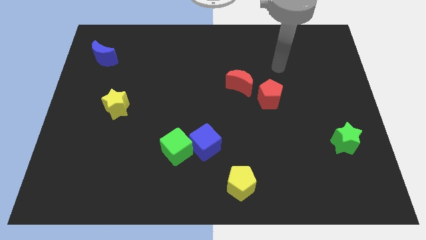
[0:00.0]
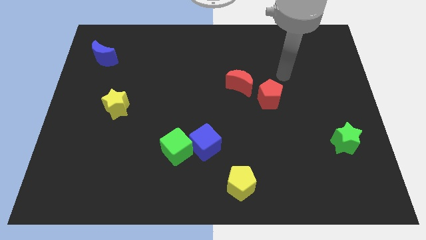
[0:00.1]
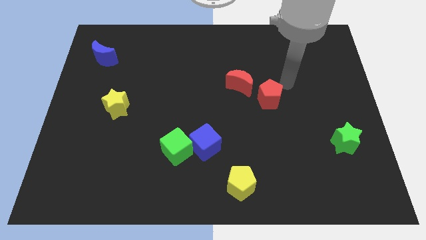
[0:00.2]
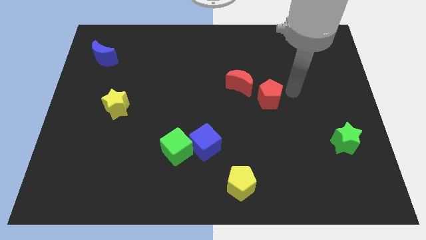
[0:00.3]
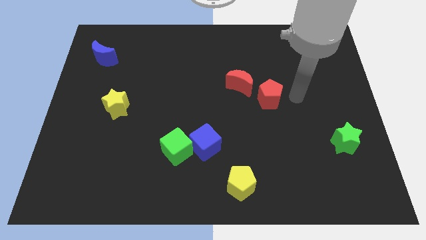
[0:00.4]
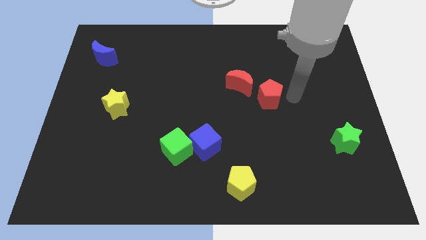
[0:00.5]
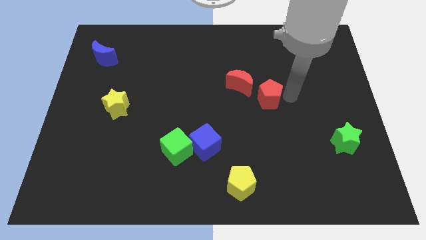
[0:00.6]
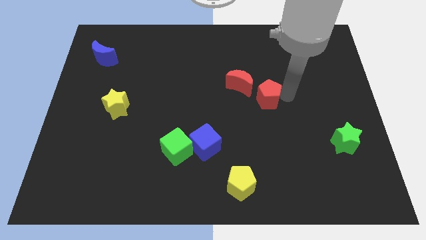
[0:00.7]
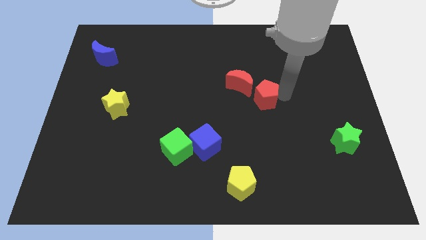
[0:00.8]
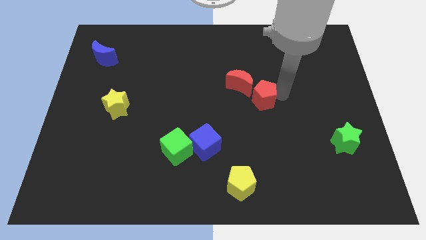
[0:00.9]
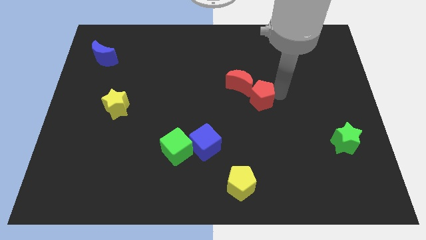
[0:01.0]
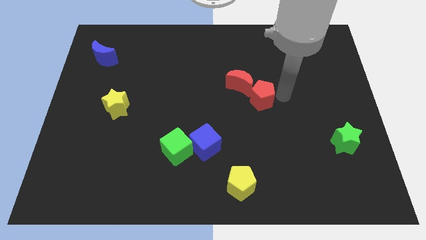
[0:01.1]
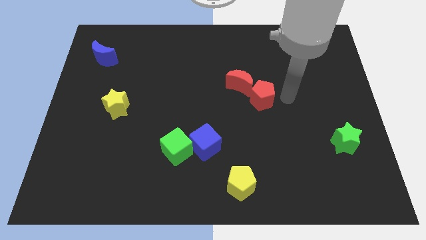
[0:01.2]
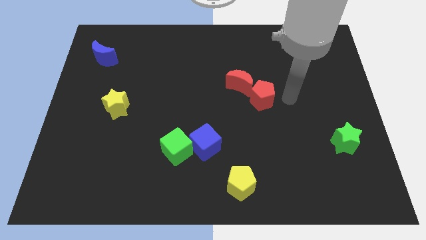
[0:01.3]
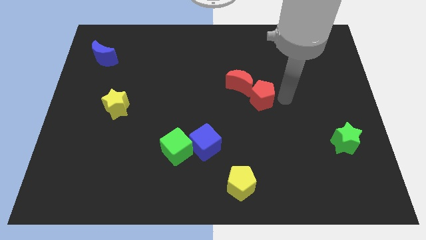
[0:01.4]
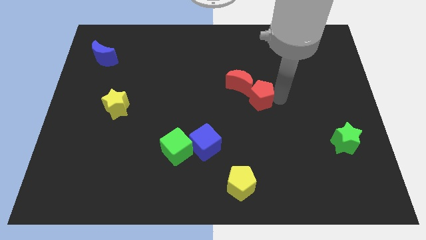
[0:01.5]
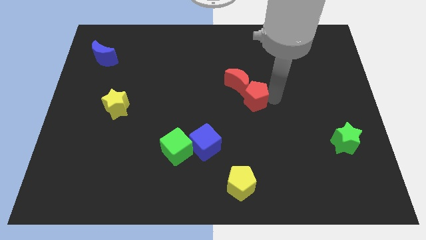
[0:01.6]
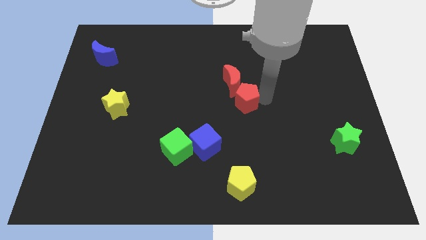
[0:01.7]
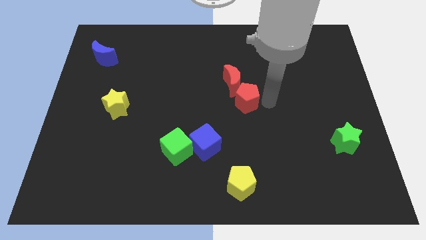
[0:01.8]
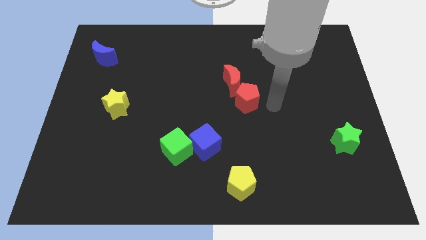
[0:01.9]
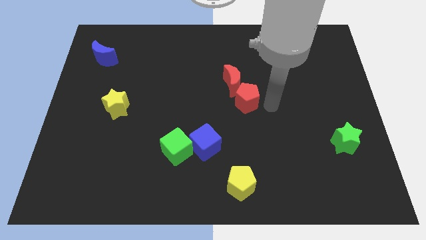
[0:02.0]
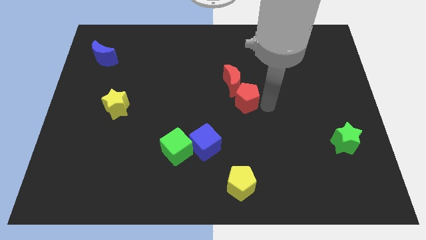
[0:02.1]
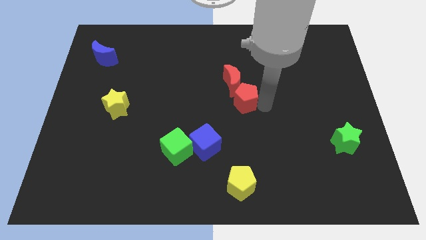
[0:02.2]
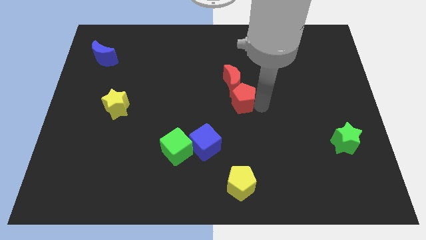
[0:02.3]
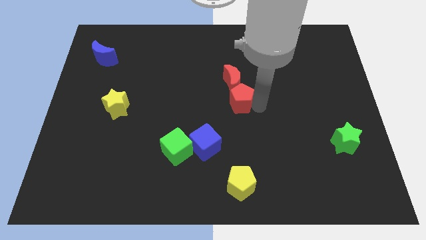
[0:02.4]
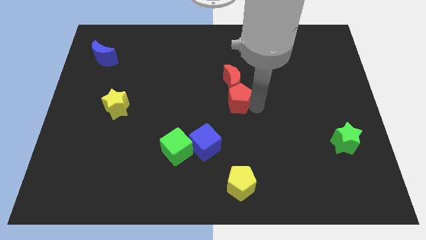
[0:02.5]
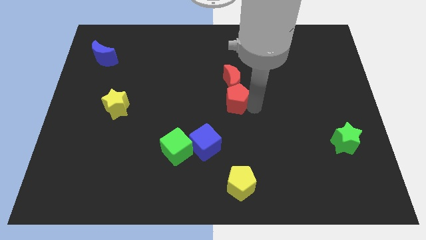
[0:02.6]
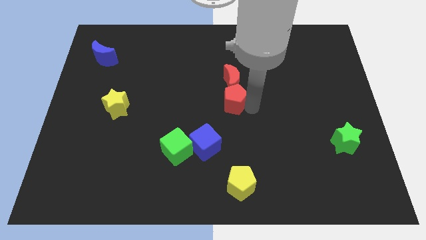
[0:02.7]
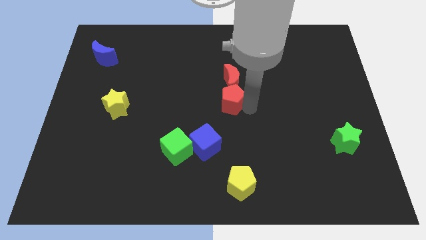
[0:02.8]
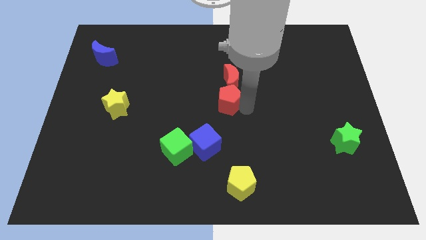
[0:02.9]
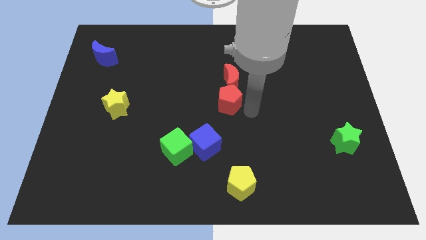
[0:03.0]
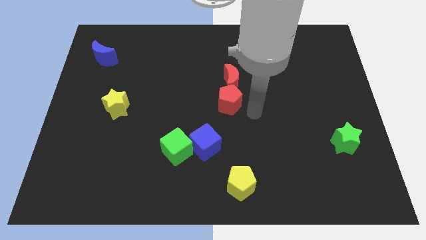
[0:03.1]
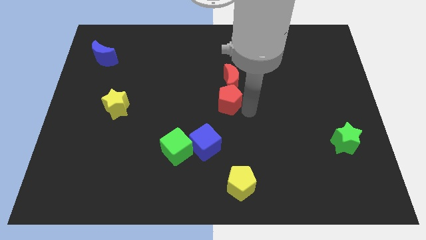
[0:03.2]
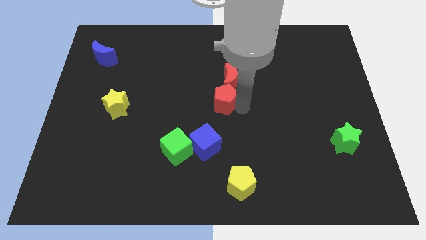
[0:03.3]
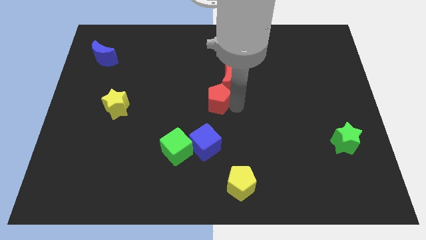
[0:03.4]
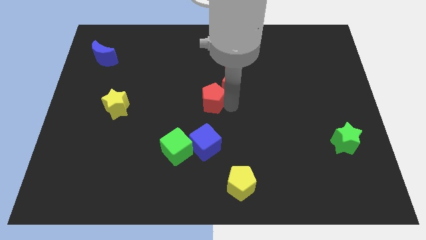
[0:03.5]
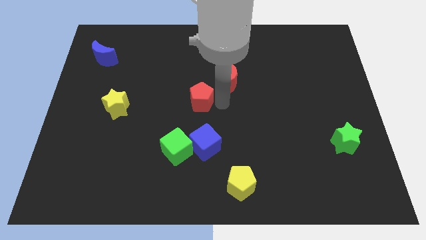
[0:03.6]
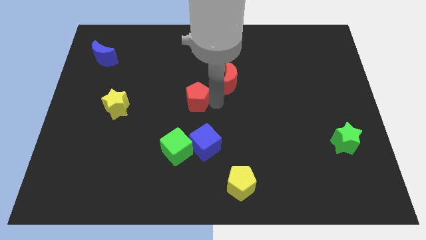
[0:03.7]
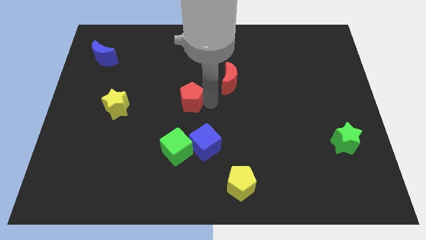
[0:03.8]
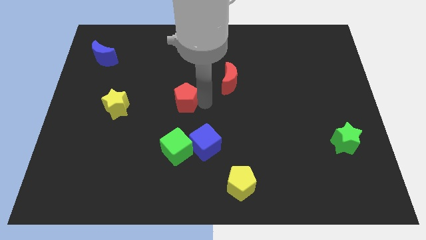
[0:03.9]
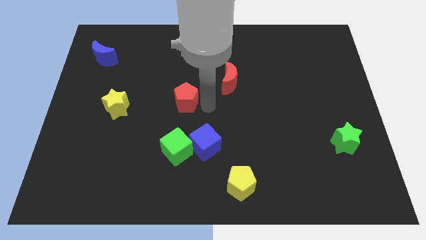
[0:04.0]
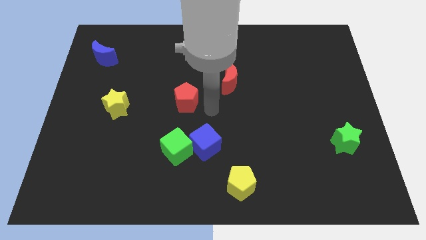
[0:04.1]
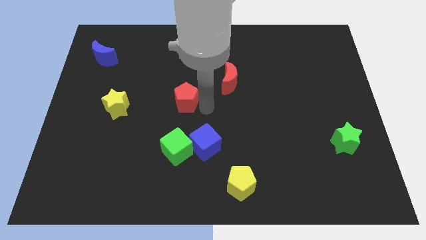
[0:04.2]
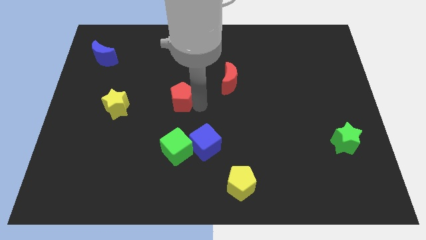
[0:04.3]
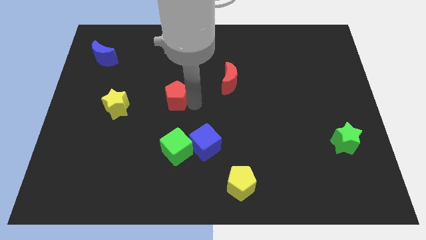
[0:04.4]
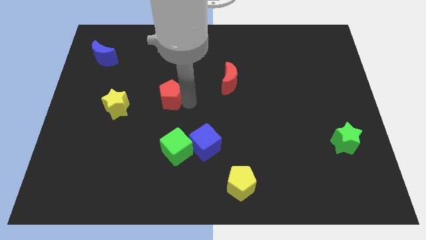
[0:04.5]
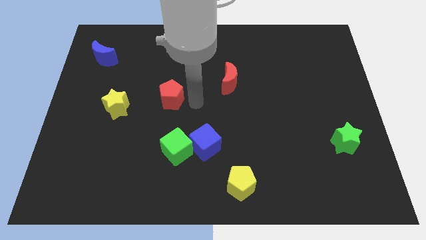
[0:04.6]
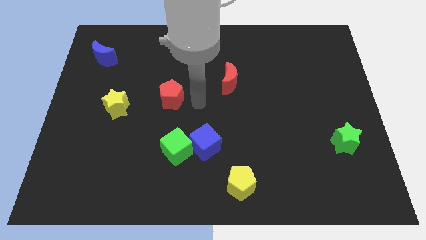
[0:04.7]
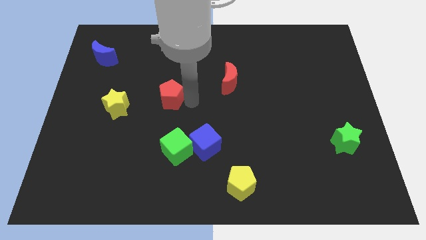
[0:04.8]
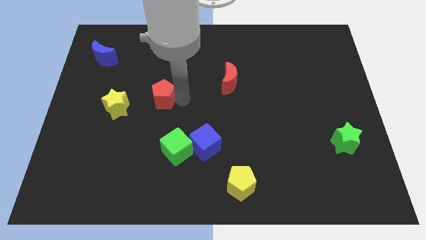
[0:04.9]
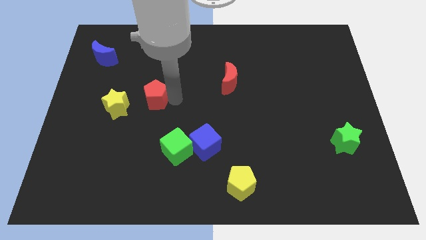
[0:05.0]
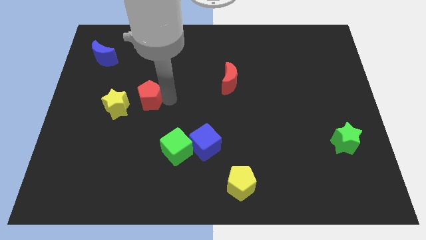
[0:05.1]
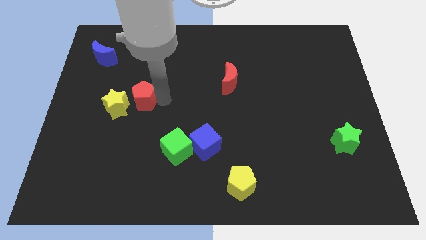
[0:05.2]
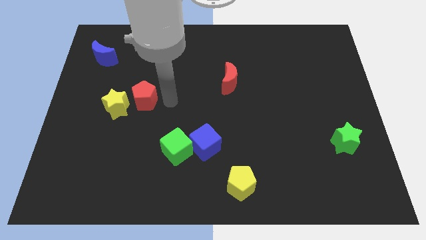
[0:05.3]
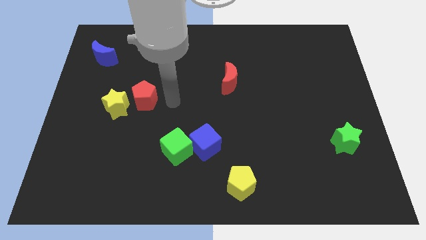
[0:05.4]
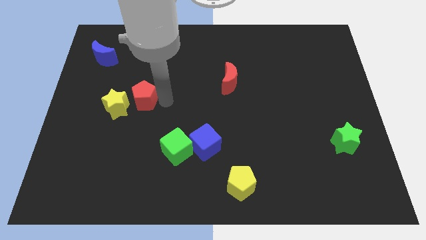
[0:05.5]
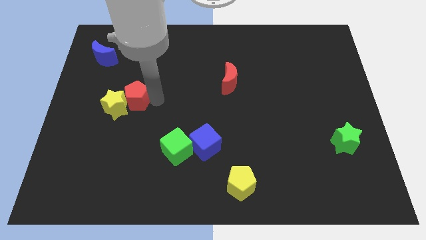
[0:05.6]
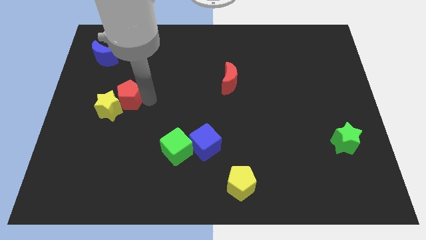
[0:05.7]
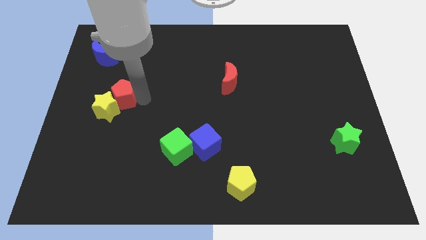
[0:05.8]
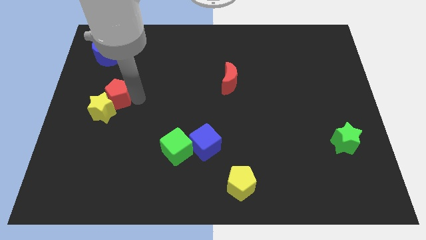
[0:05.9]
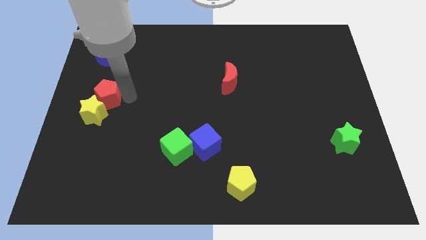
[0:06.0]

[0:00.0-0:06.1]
move the red pentagon to the center left

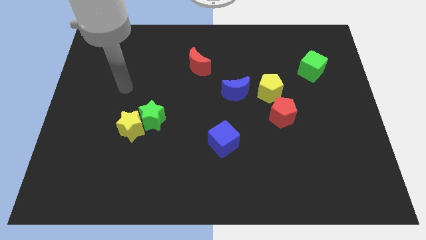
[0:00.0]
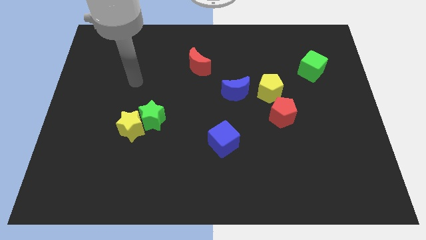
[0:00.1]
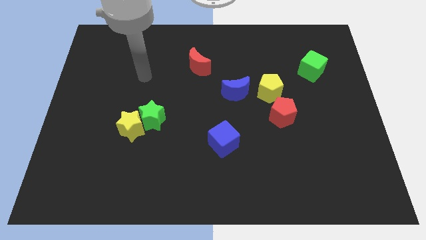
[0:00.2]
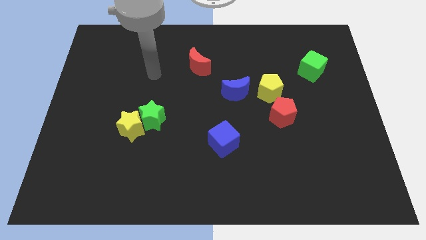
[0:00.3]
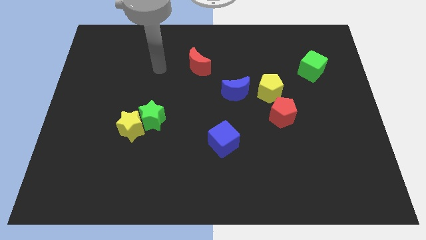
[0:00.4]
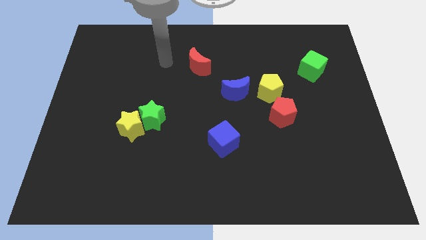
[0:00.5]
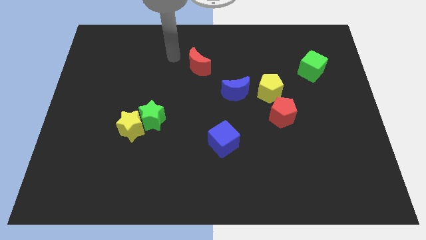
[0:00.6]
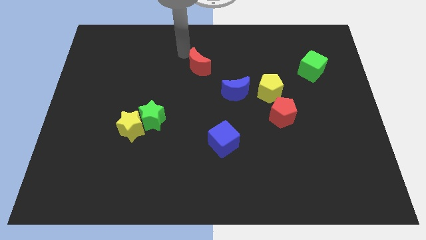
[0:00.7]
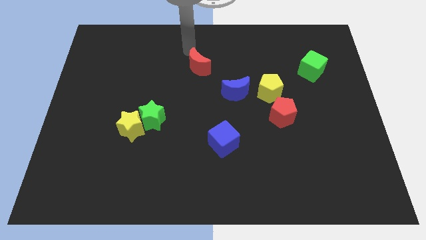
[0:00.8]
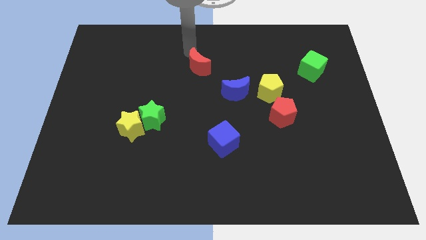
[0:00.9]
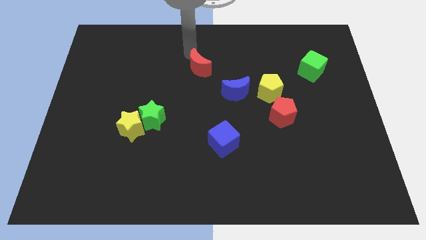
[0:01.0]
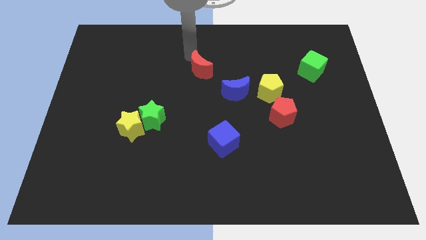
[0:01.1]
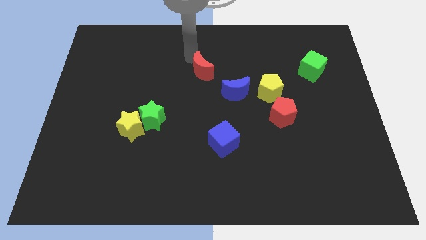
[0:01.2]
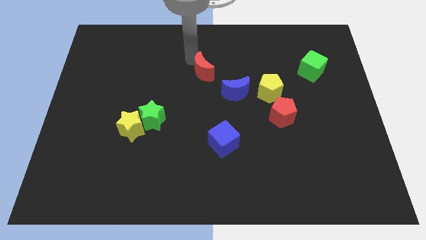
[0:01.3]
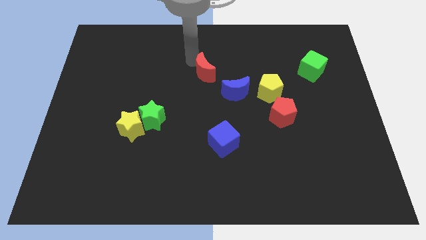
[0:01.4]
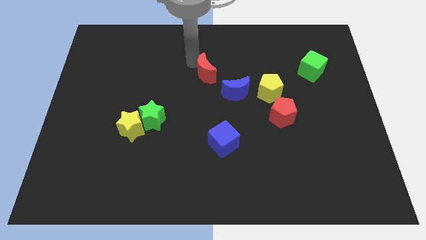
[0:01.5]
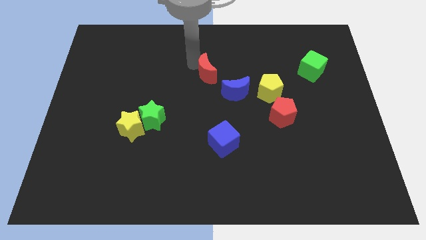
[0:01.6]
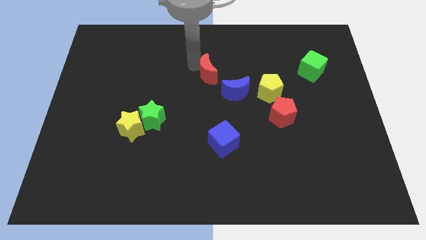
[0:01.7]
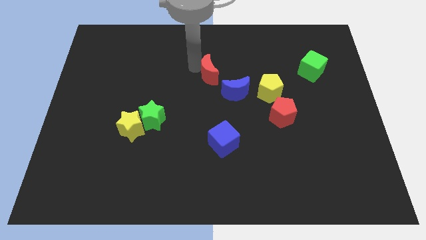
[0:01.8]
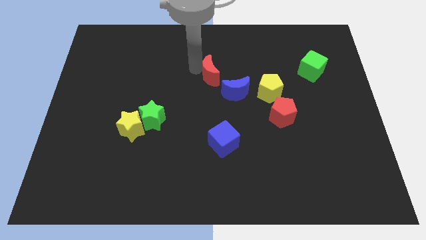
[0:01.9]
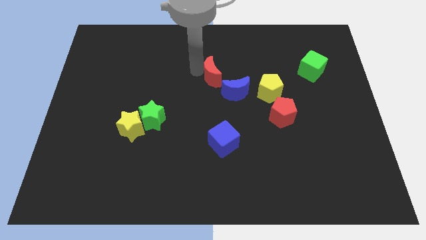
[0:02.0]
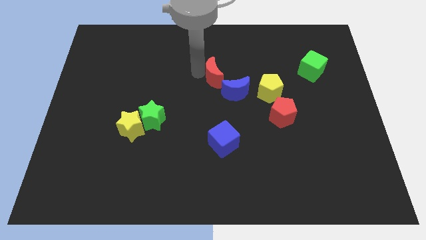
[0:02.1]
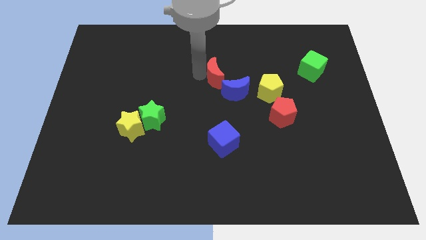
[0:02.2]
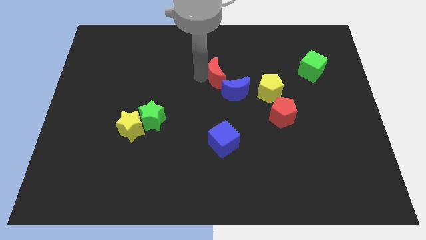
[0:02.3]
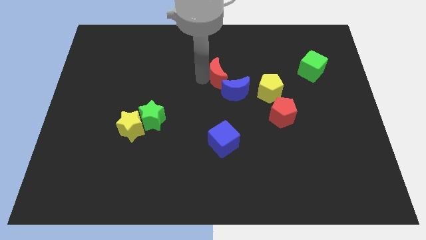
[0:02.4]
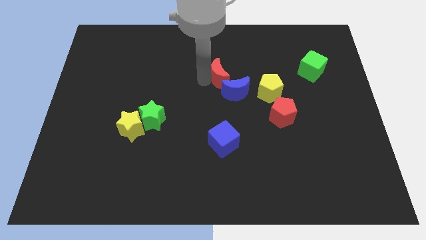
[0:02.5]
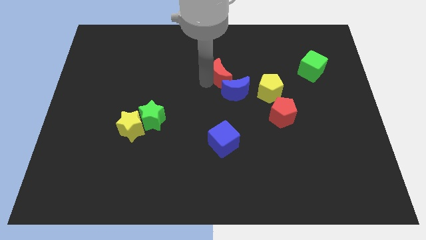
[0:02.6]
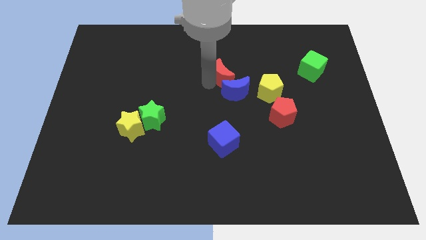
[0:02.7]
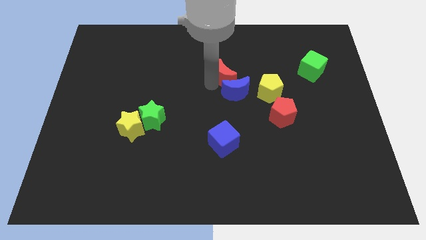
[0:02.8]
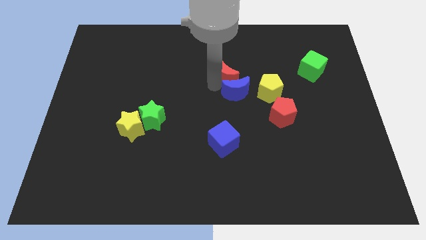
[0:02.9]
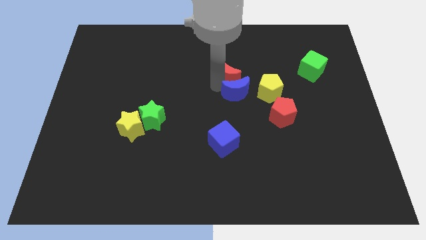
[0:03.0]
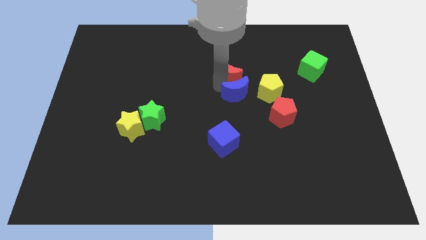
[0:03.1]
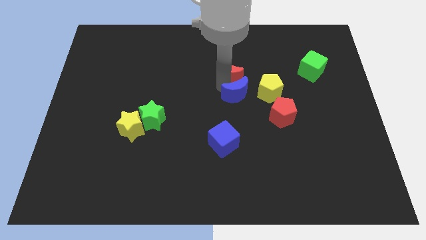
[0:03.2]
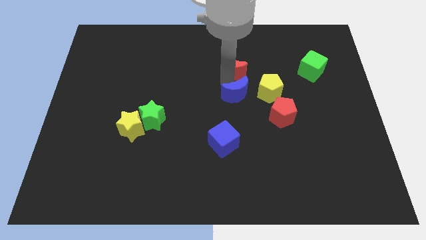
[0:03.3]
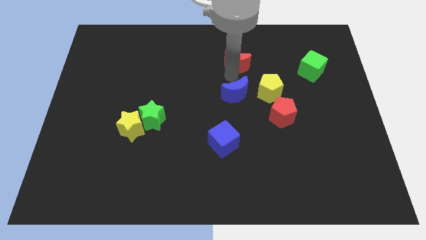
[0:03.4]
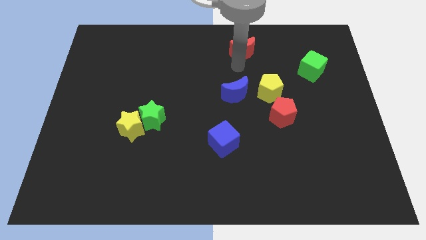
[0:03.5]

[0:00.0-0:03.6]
slide the red moon to the top
